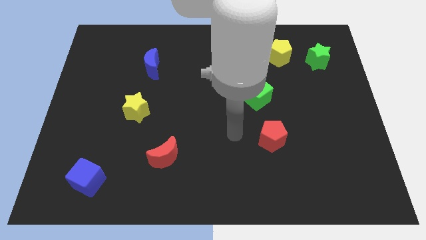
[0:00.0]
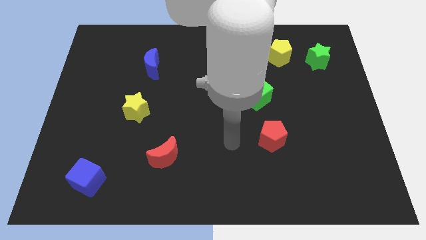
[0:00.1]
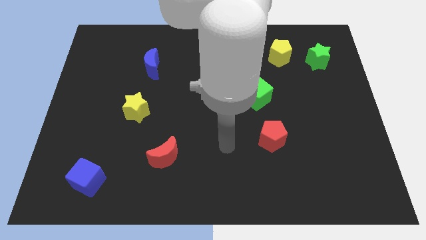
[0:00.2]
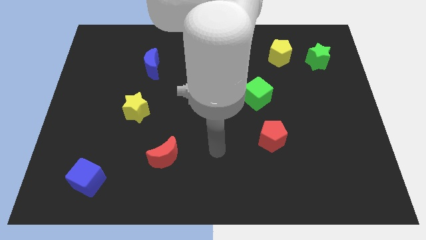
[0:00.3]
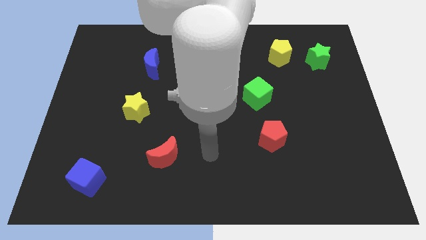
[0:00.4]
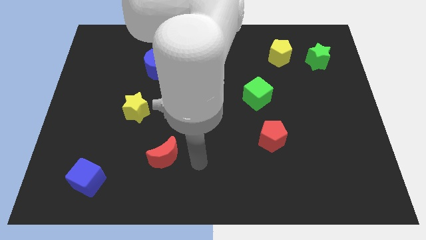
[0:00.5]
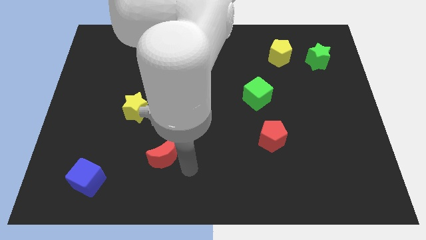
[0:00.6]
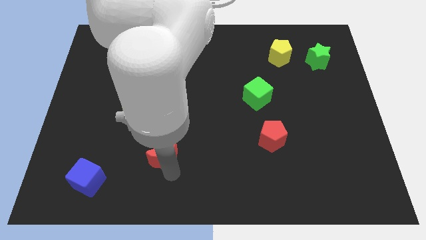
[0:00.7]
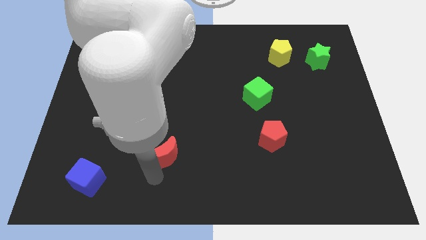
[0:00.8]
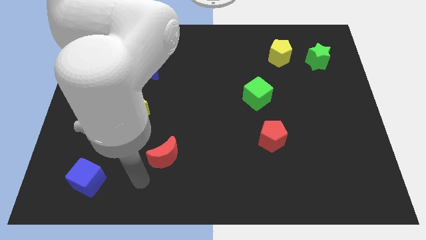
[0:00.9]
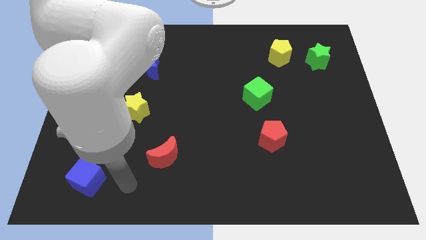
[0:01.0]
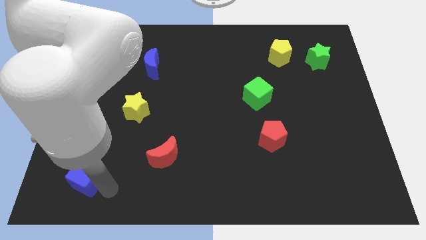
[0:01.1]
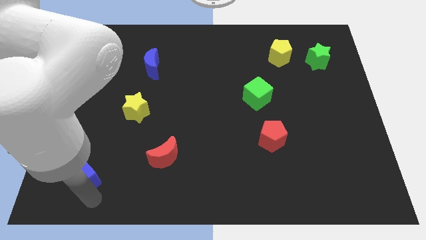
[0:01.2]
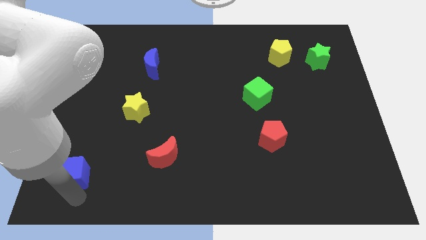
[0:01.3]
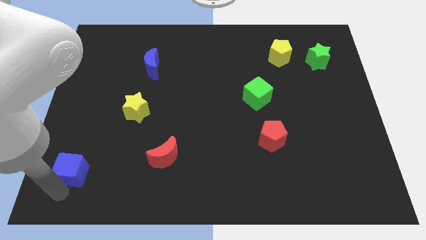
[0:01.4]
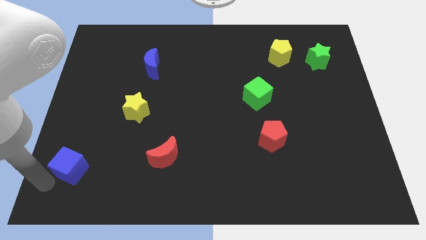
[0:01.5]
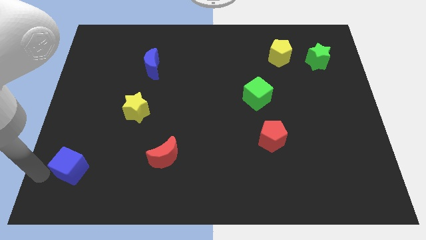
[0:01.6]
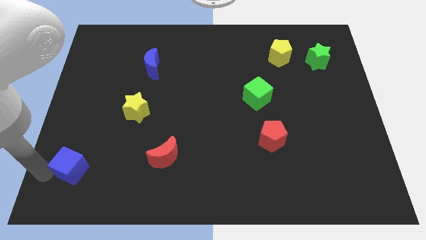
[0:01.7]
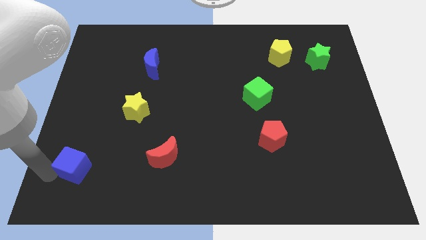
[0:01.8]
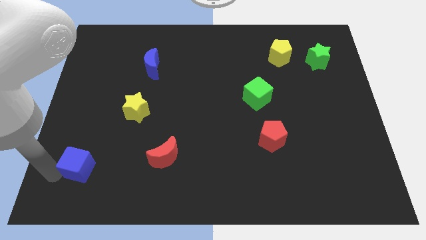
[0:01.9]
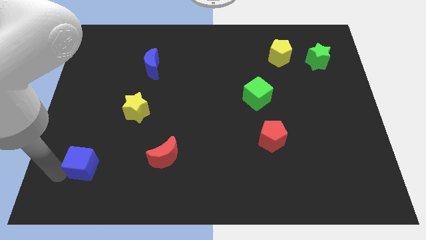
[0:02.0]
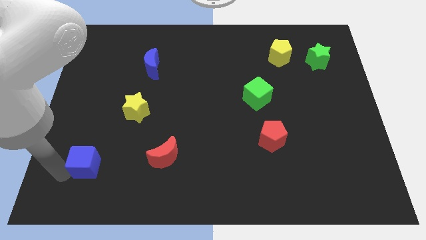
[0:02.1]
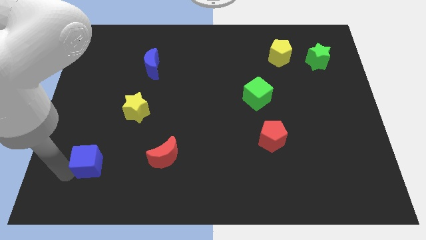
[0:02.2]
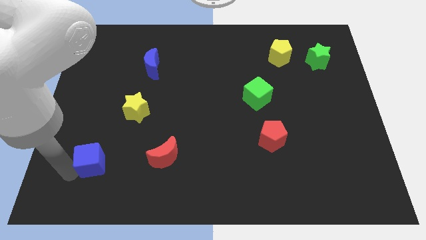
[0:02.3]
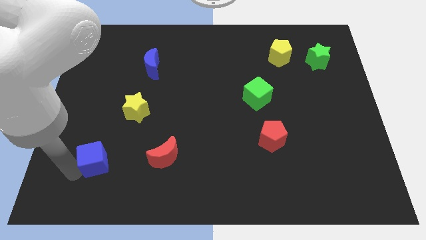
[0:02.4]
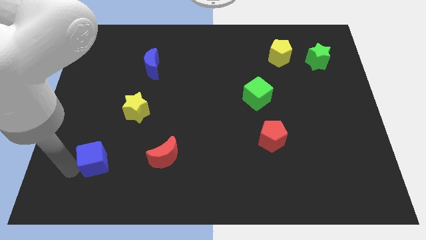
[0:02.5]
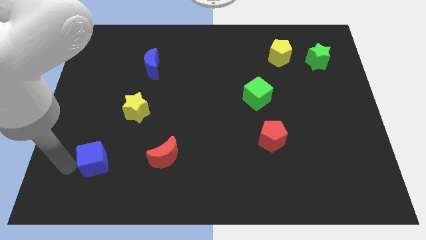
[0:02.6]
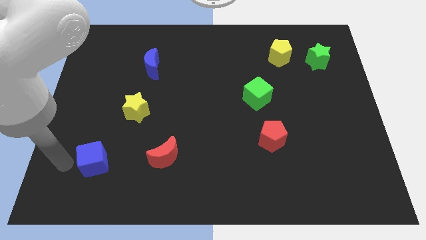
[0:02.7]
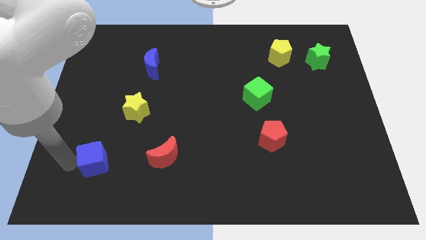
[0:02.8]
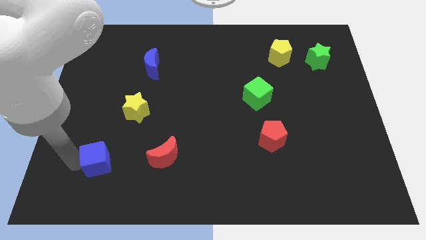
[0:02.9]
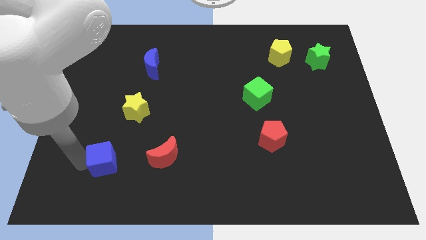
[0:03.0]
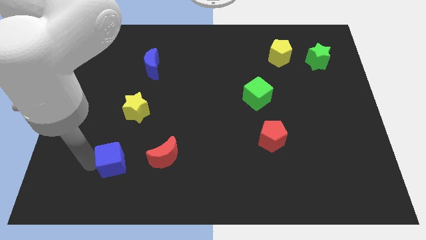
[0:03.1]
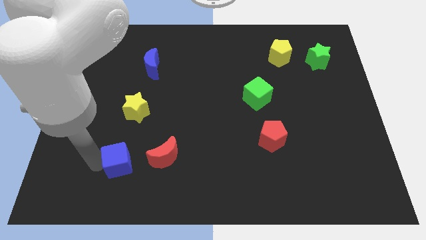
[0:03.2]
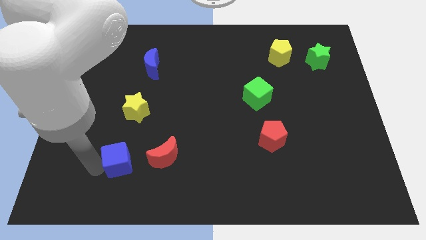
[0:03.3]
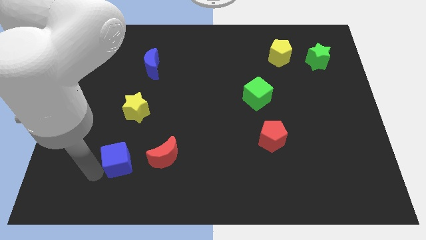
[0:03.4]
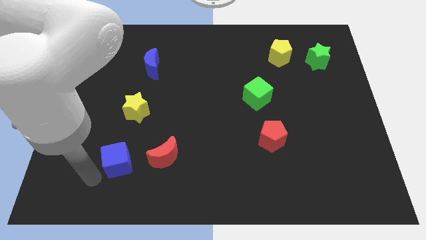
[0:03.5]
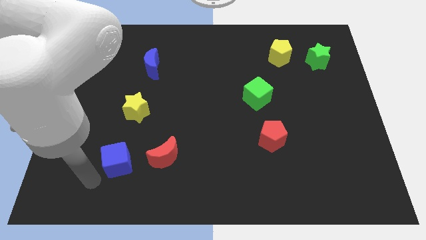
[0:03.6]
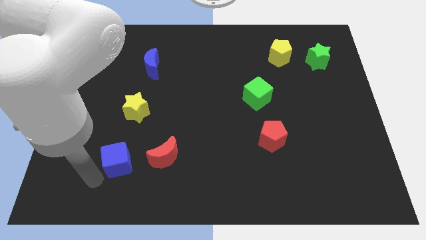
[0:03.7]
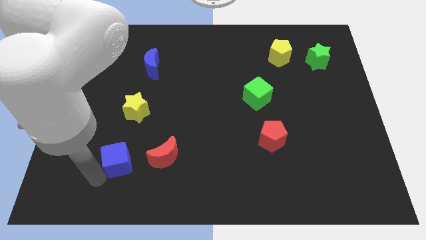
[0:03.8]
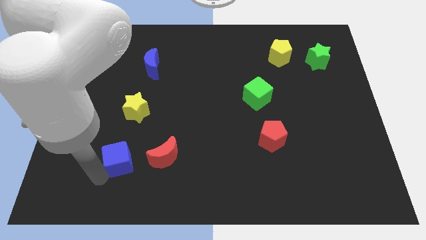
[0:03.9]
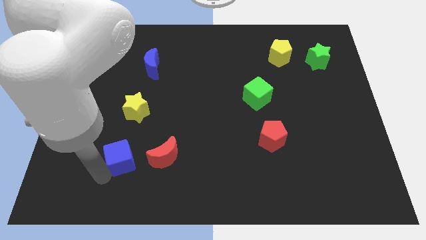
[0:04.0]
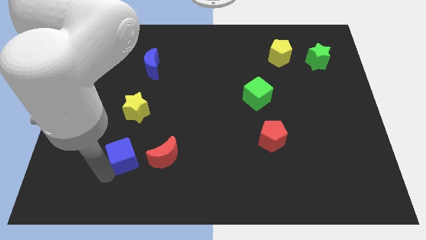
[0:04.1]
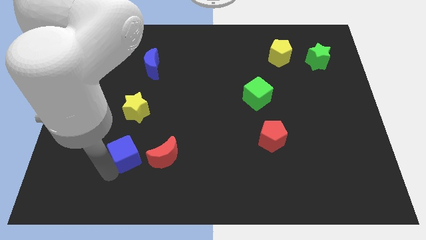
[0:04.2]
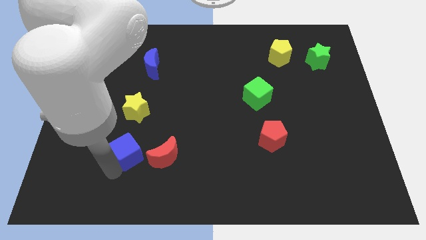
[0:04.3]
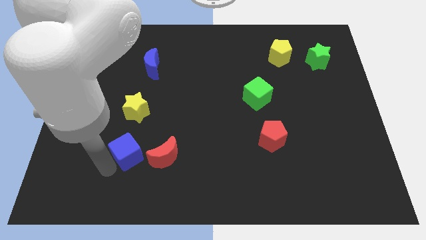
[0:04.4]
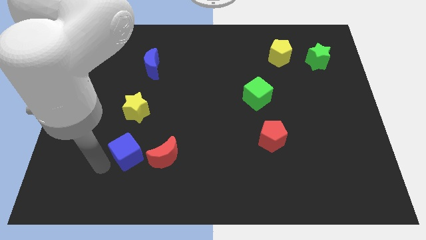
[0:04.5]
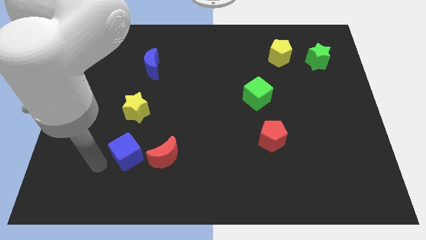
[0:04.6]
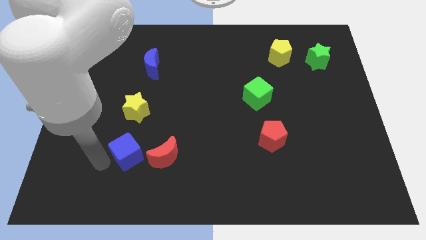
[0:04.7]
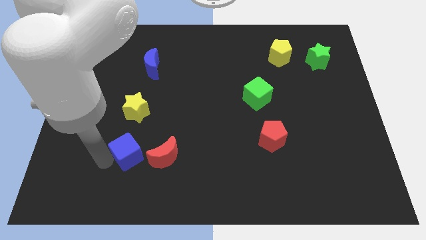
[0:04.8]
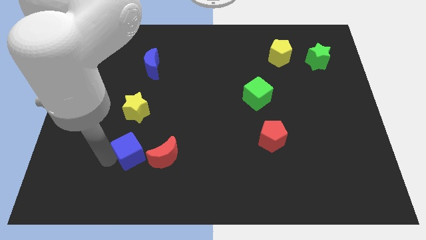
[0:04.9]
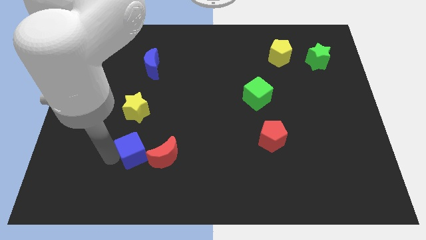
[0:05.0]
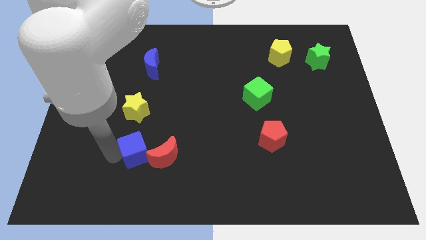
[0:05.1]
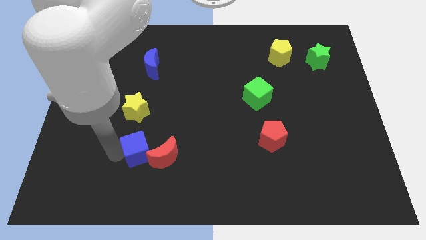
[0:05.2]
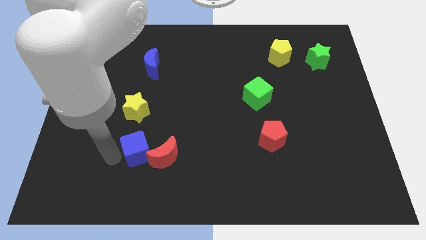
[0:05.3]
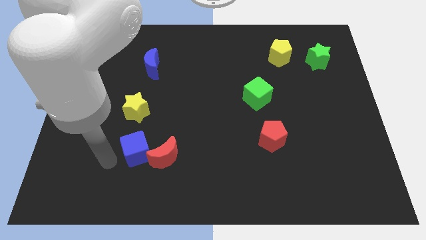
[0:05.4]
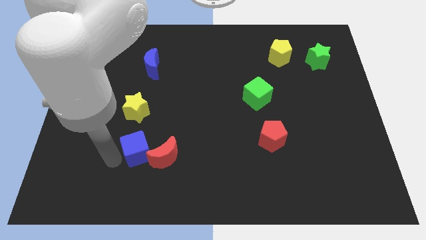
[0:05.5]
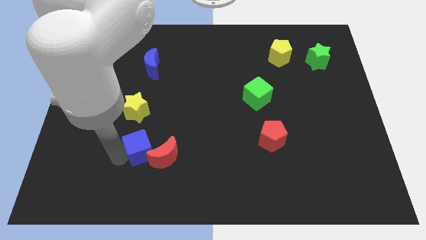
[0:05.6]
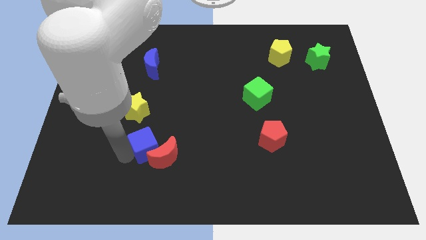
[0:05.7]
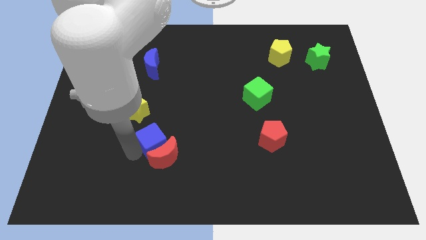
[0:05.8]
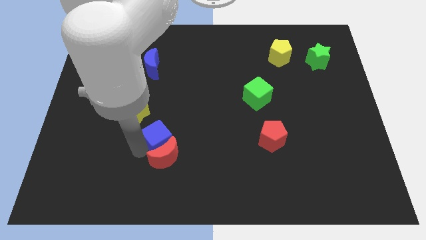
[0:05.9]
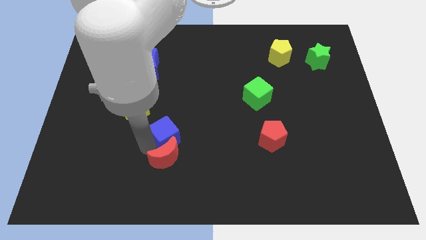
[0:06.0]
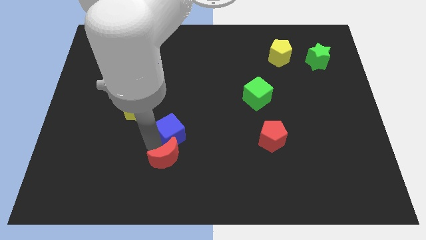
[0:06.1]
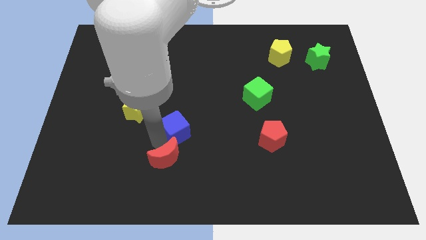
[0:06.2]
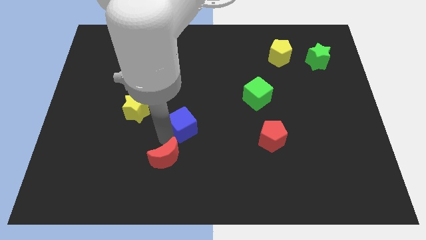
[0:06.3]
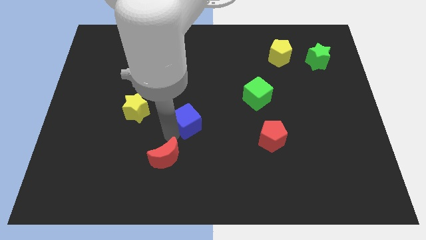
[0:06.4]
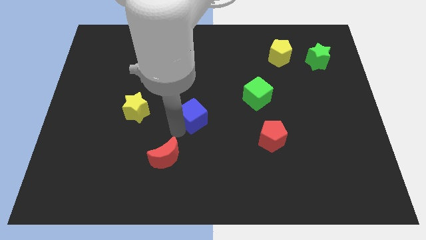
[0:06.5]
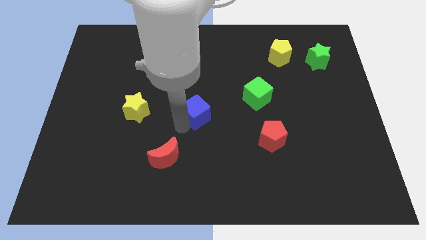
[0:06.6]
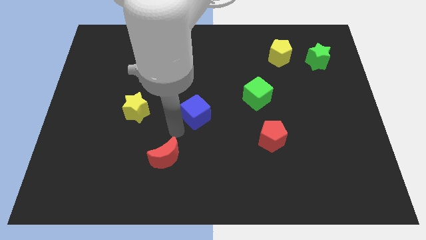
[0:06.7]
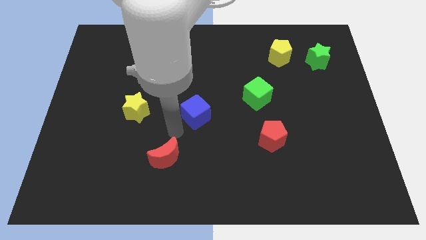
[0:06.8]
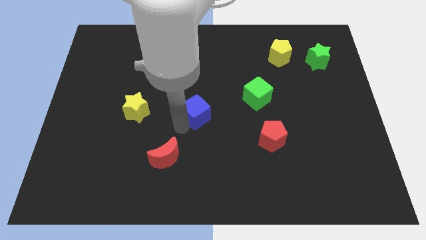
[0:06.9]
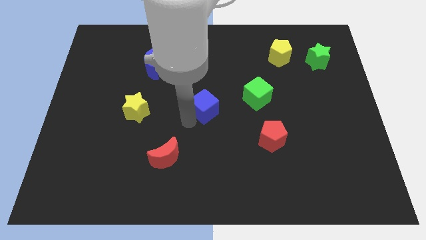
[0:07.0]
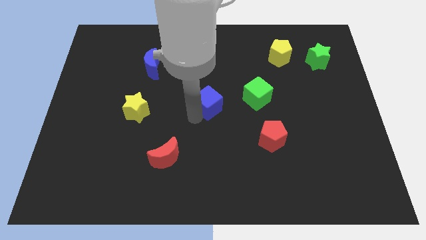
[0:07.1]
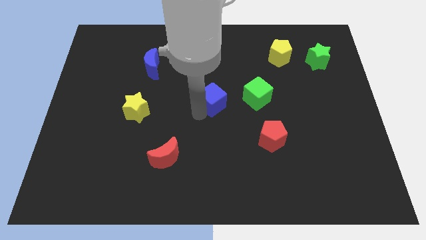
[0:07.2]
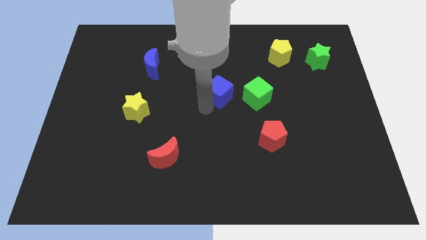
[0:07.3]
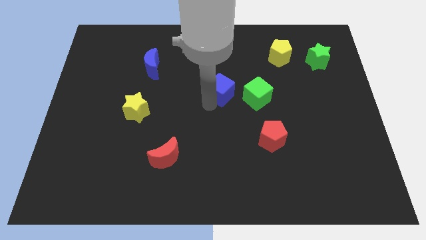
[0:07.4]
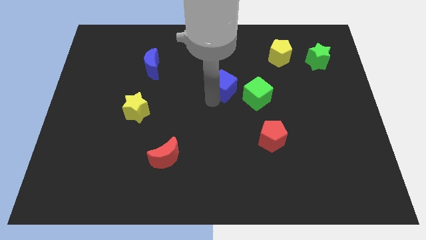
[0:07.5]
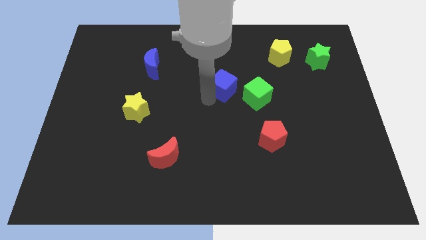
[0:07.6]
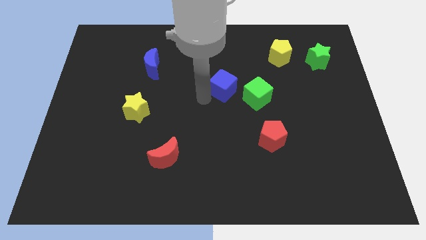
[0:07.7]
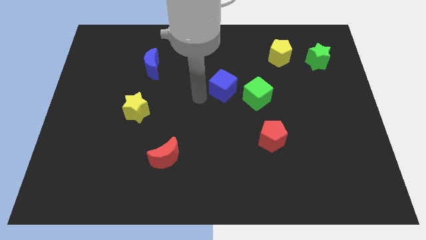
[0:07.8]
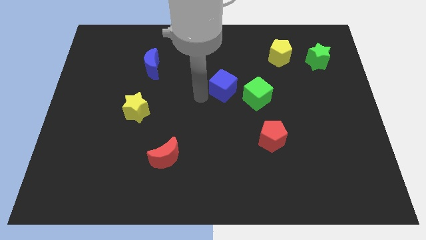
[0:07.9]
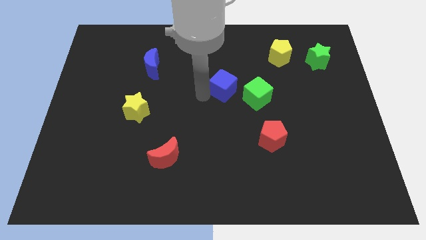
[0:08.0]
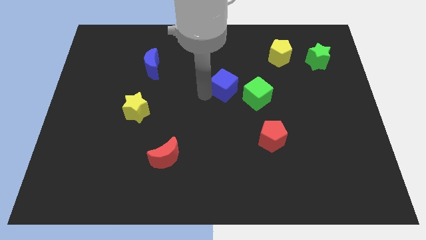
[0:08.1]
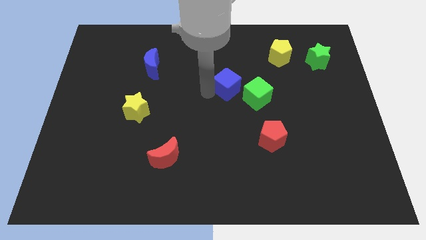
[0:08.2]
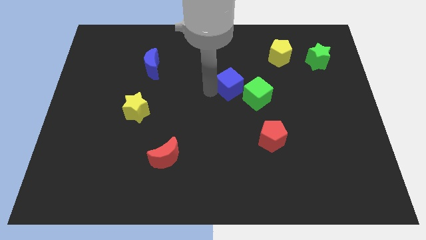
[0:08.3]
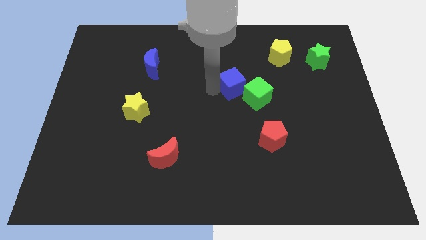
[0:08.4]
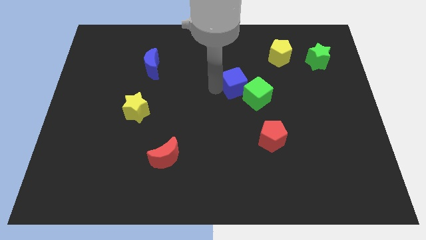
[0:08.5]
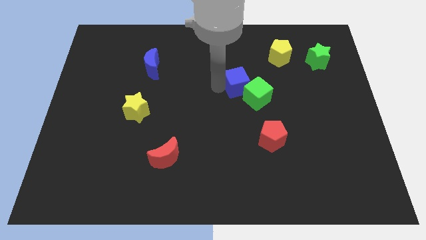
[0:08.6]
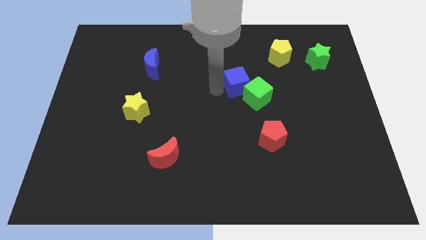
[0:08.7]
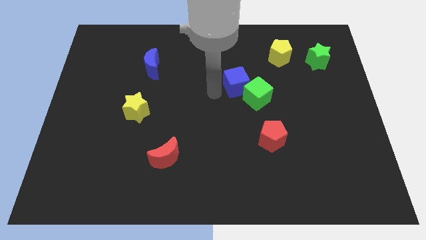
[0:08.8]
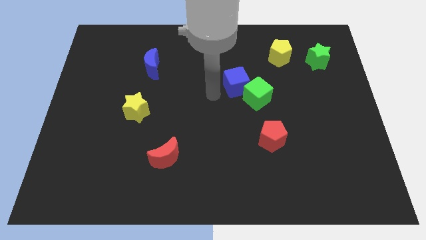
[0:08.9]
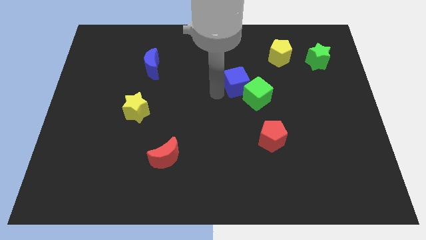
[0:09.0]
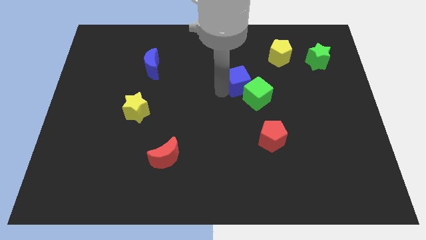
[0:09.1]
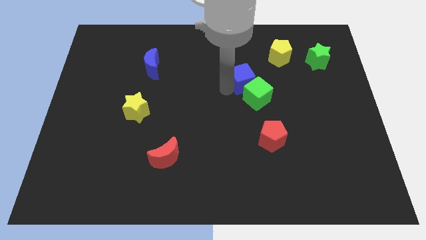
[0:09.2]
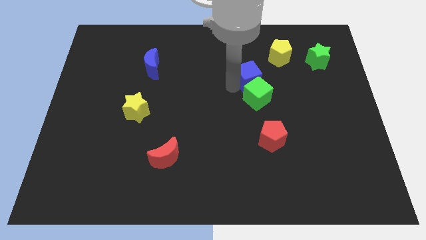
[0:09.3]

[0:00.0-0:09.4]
push the blue cube diagonally down and to the left of the yellow pentagon
